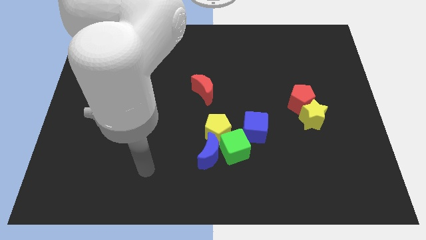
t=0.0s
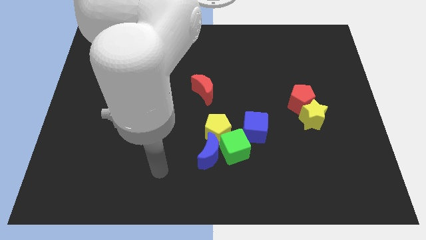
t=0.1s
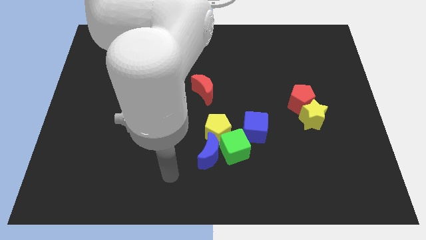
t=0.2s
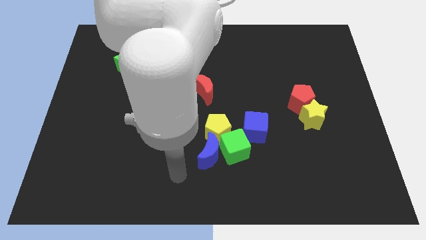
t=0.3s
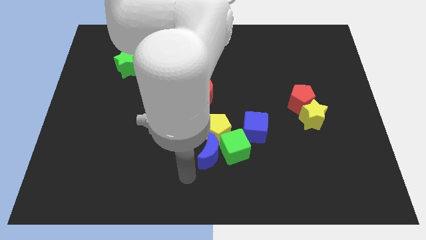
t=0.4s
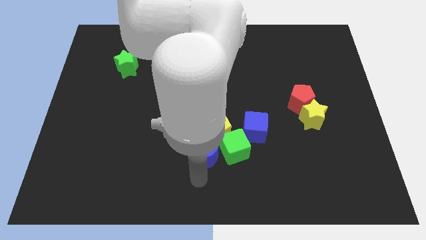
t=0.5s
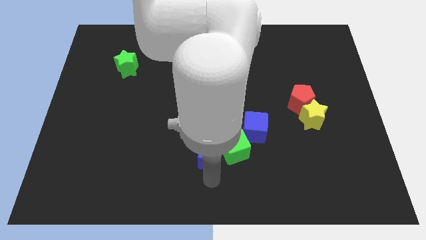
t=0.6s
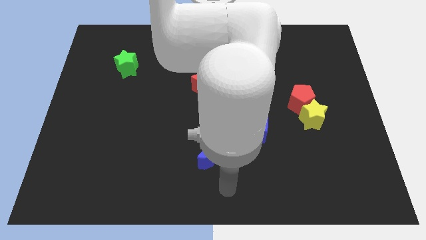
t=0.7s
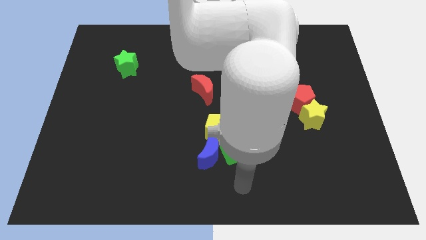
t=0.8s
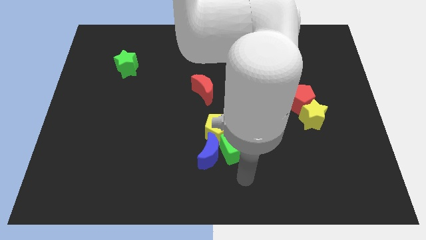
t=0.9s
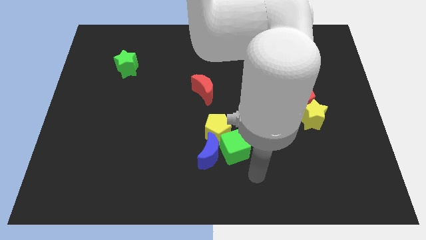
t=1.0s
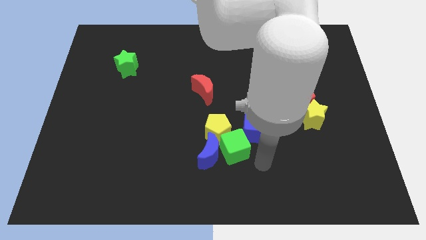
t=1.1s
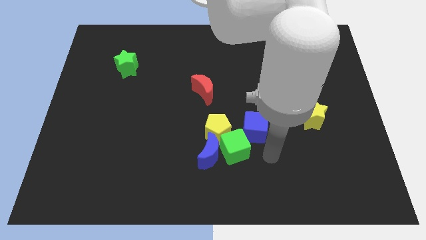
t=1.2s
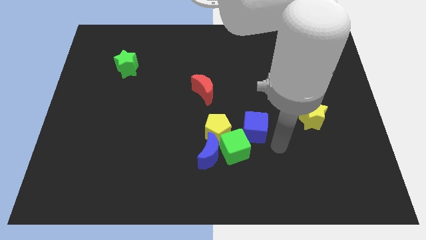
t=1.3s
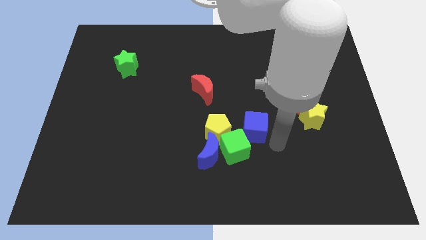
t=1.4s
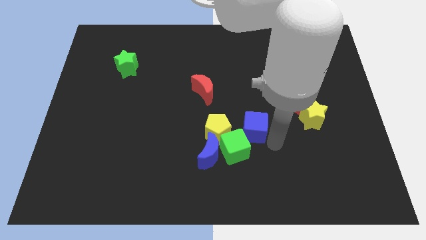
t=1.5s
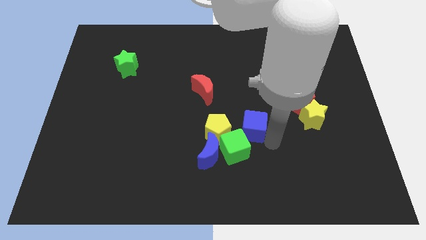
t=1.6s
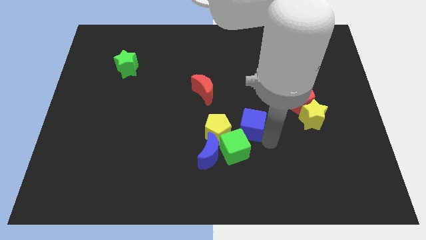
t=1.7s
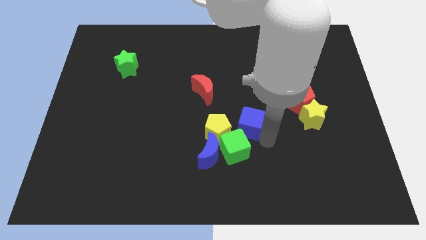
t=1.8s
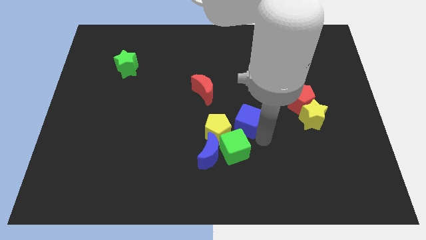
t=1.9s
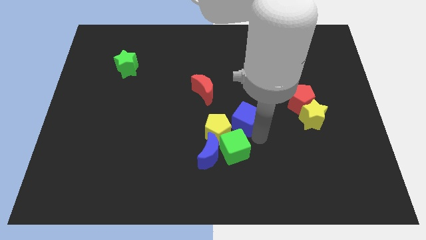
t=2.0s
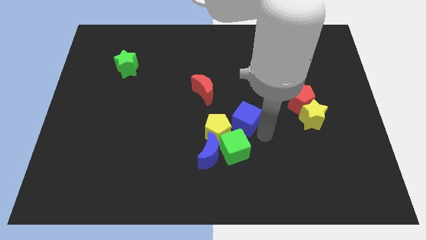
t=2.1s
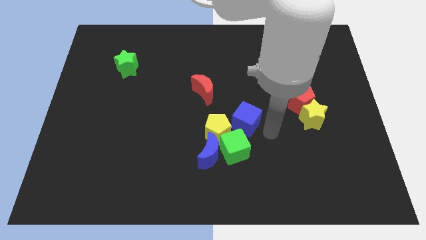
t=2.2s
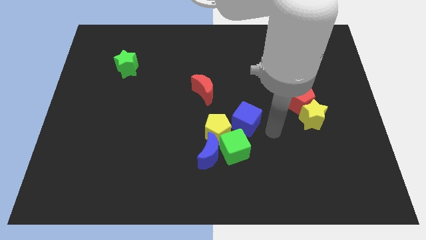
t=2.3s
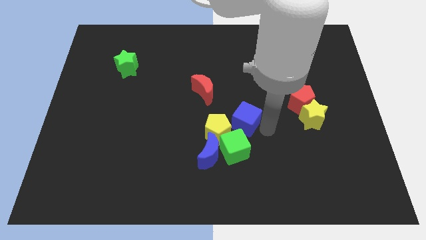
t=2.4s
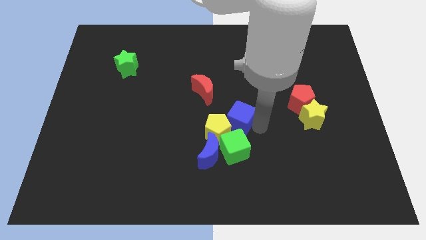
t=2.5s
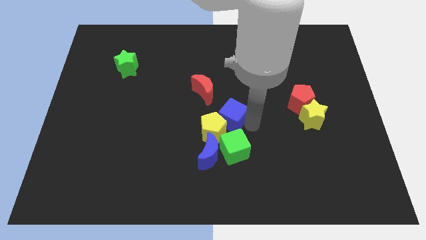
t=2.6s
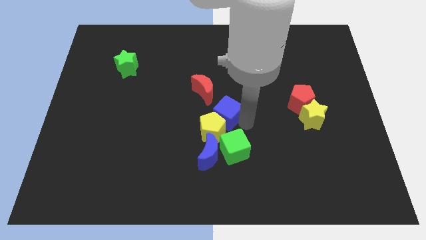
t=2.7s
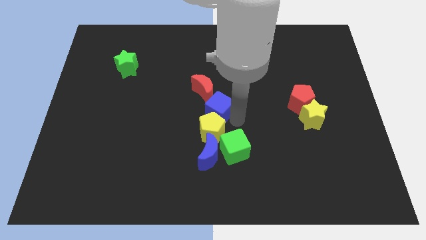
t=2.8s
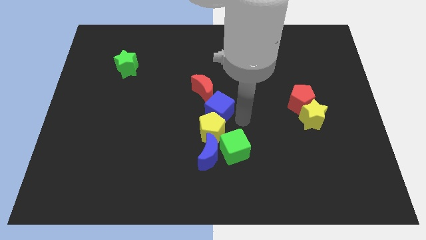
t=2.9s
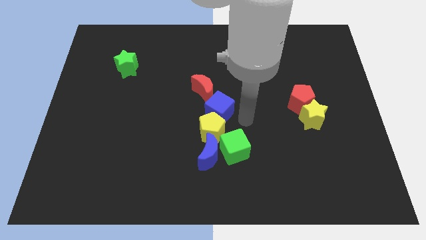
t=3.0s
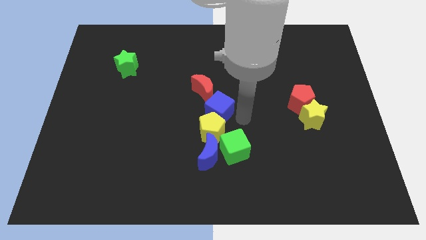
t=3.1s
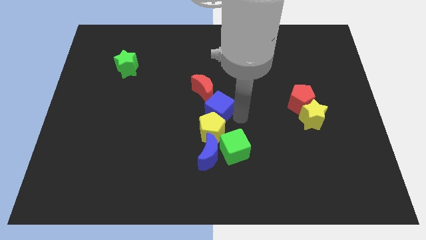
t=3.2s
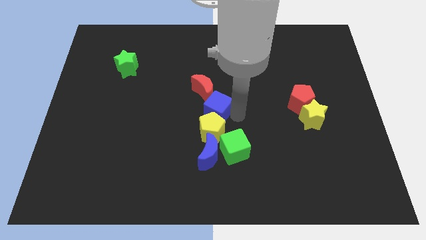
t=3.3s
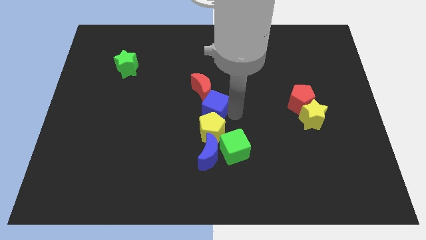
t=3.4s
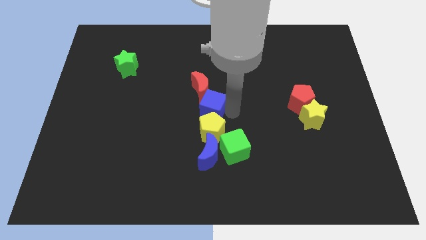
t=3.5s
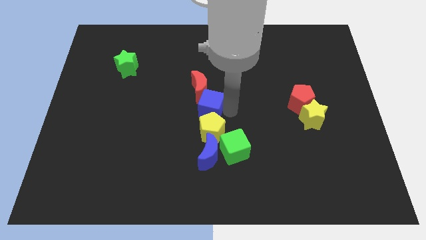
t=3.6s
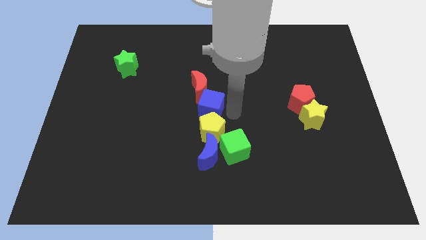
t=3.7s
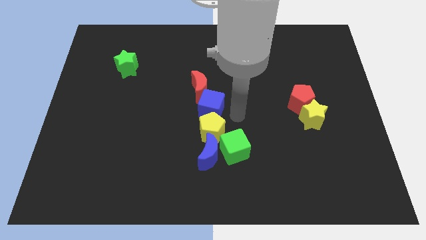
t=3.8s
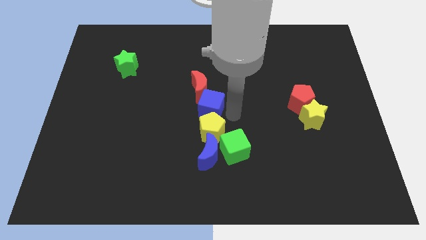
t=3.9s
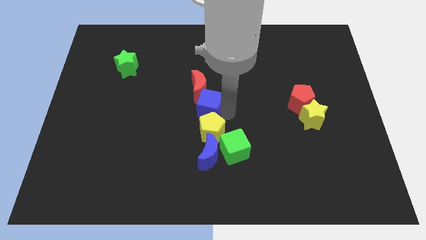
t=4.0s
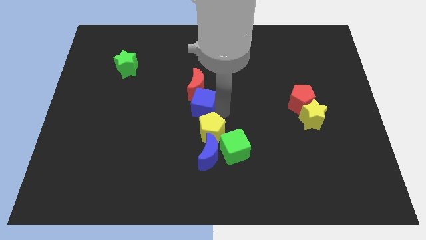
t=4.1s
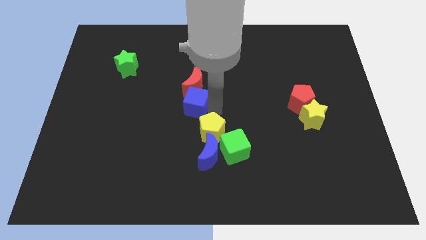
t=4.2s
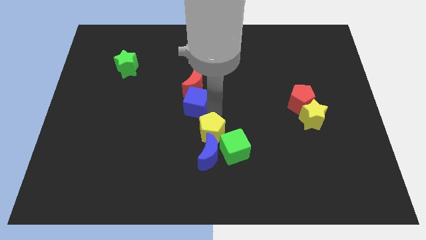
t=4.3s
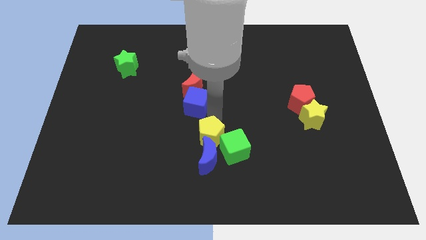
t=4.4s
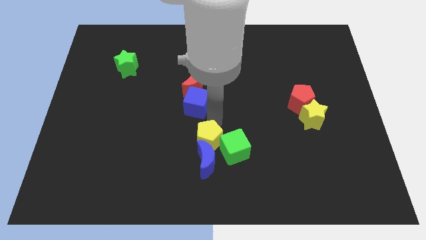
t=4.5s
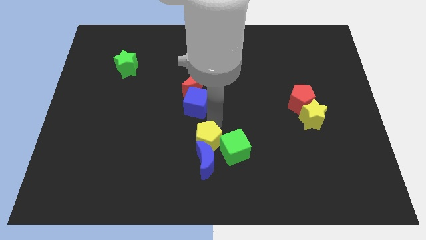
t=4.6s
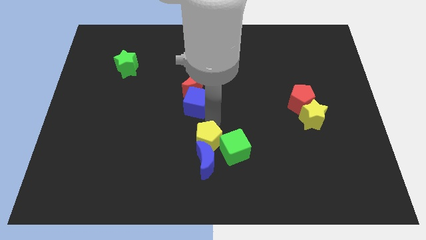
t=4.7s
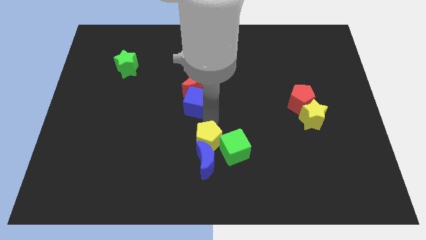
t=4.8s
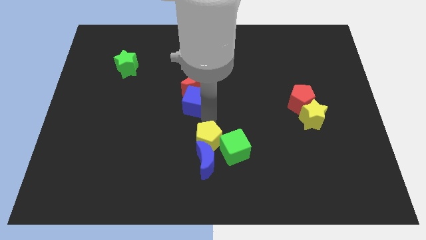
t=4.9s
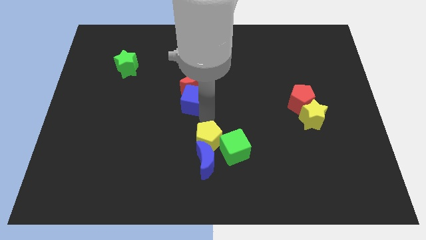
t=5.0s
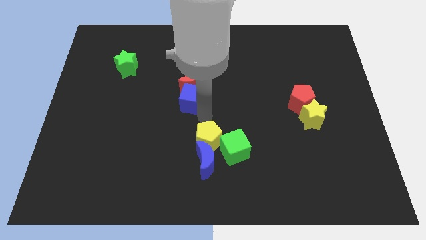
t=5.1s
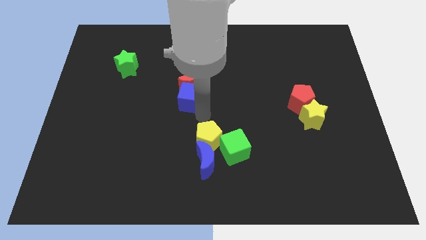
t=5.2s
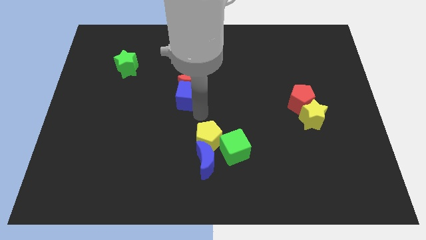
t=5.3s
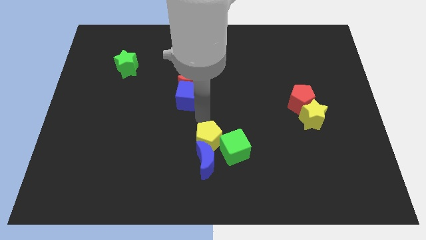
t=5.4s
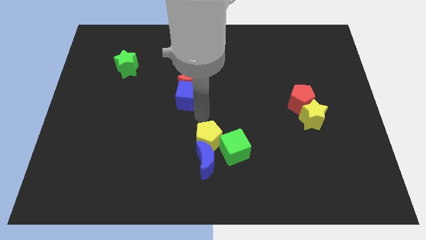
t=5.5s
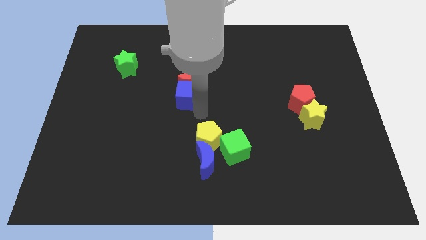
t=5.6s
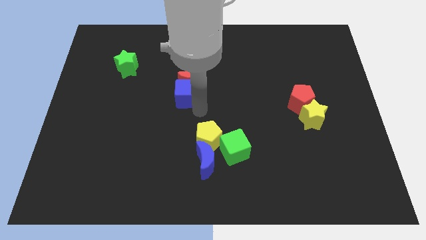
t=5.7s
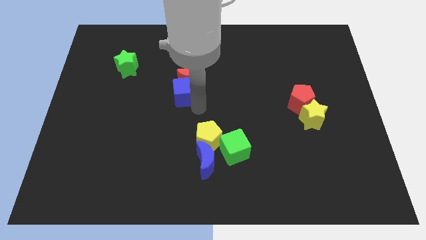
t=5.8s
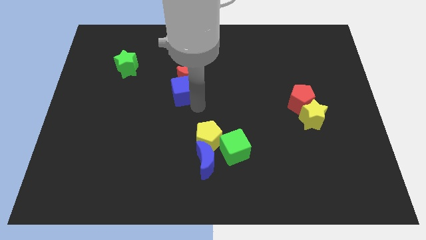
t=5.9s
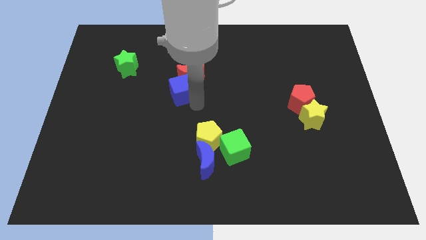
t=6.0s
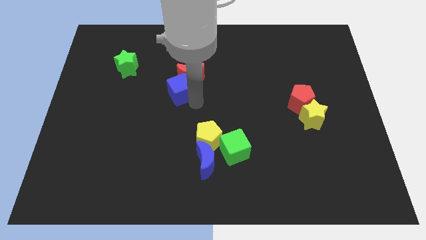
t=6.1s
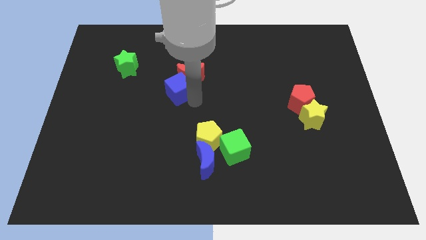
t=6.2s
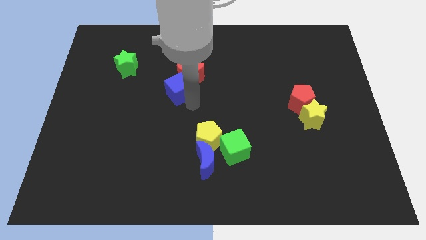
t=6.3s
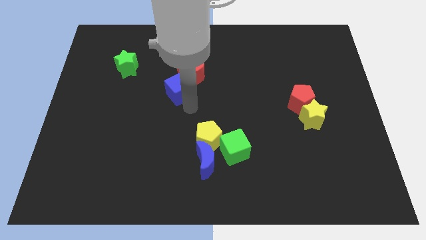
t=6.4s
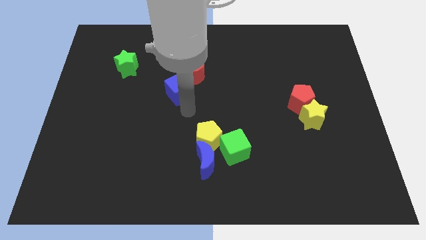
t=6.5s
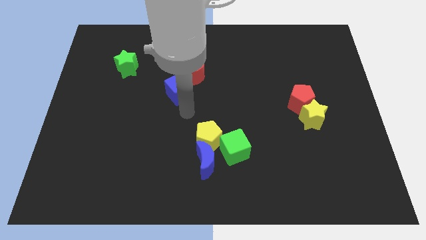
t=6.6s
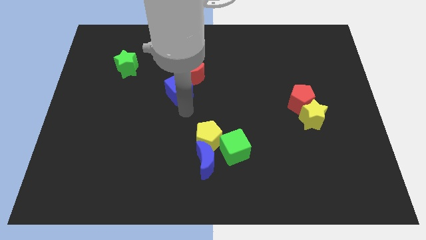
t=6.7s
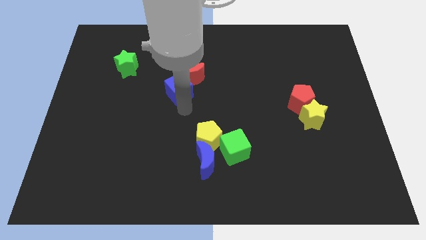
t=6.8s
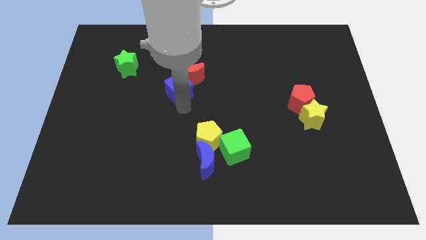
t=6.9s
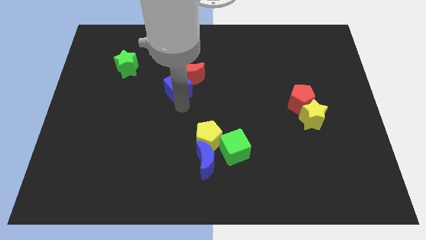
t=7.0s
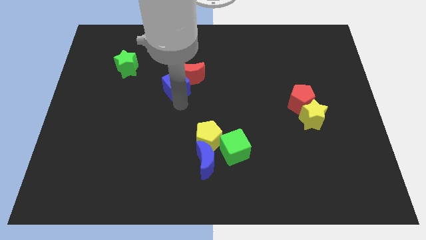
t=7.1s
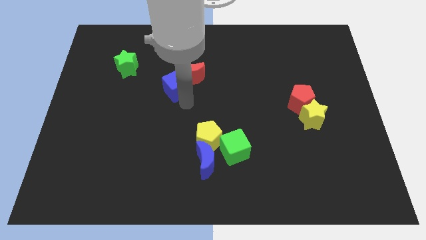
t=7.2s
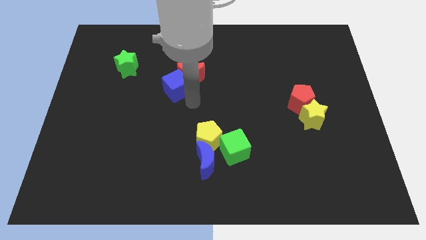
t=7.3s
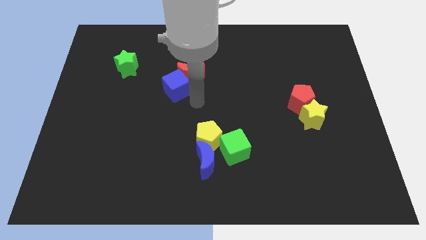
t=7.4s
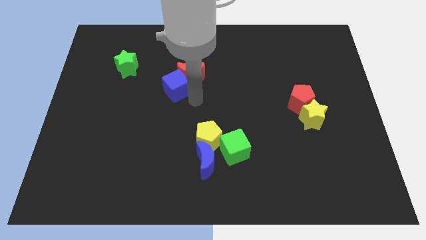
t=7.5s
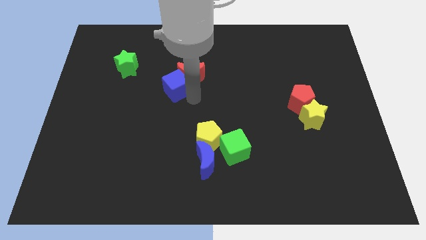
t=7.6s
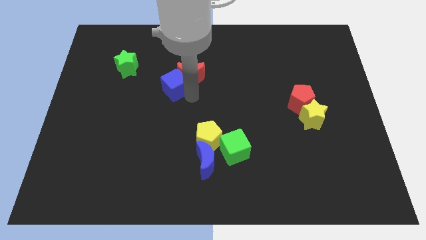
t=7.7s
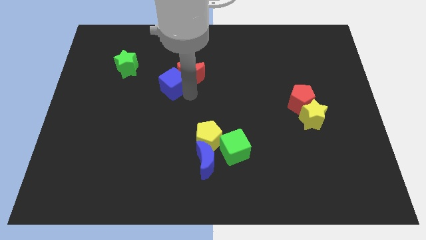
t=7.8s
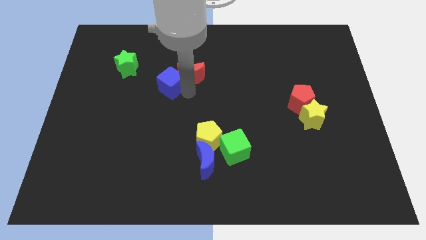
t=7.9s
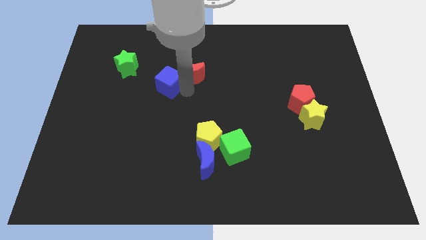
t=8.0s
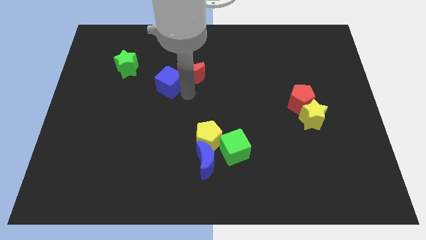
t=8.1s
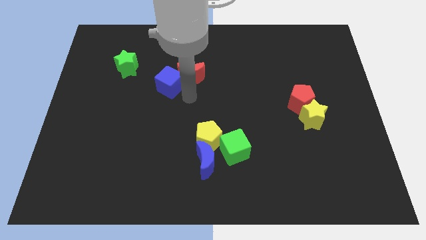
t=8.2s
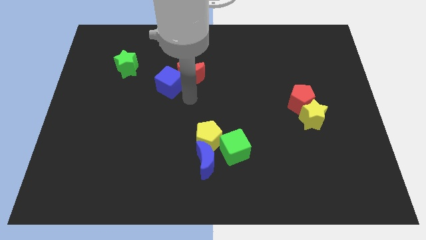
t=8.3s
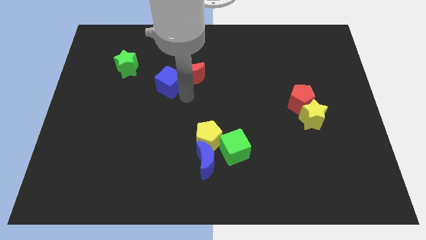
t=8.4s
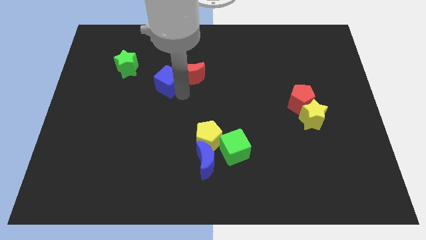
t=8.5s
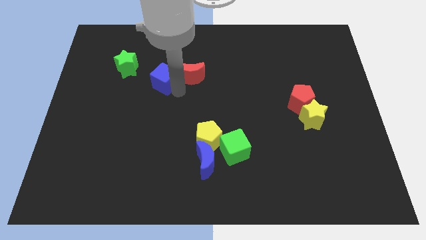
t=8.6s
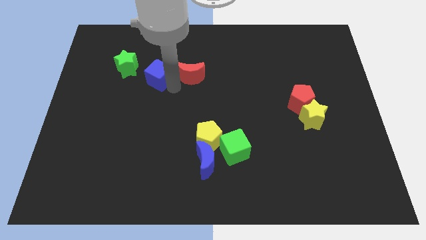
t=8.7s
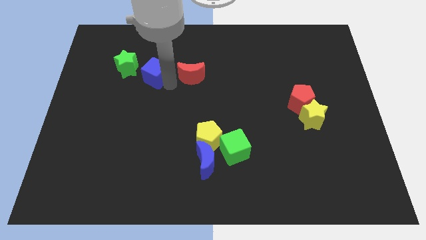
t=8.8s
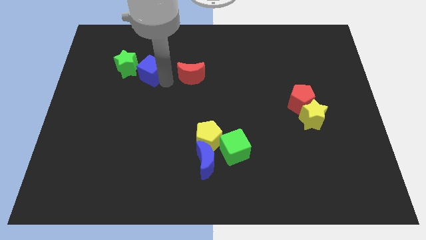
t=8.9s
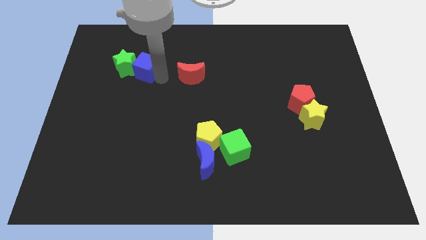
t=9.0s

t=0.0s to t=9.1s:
slide the blue cube to the green star
